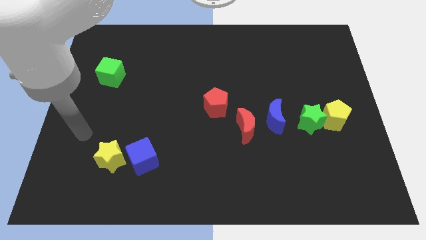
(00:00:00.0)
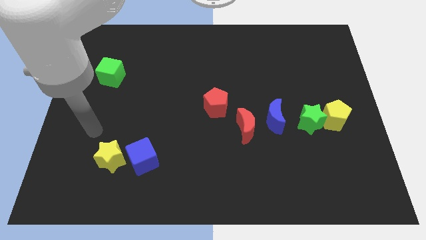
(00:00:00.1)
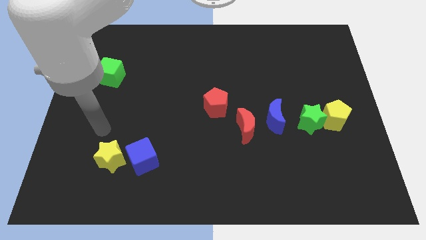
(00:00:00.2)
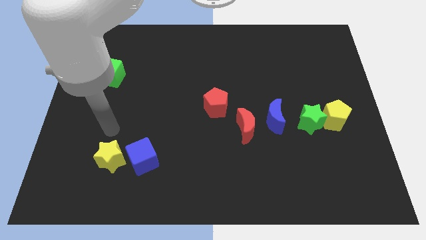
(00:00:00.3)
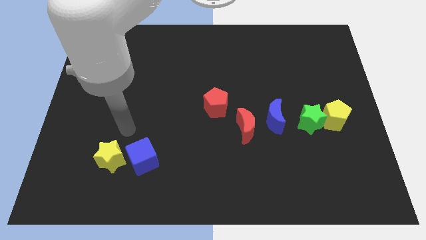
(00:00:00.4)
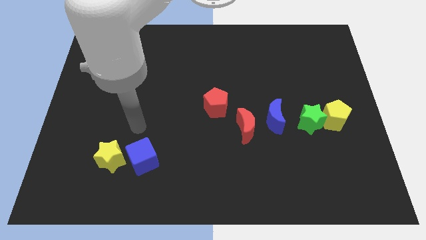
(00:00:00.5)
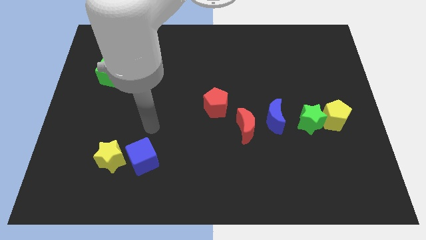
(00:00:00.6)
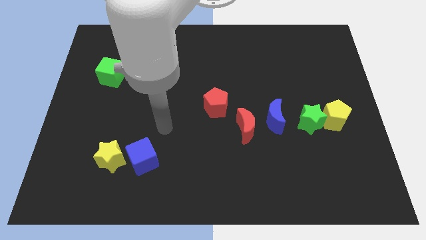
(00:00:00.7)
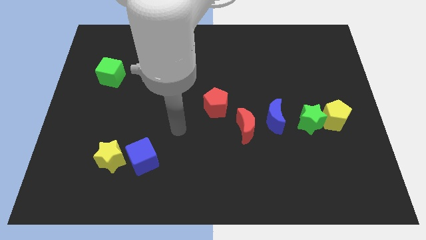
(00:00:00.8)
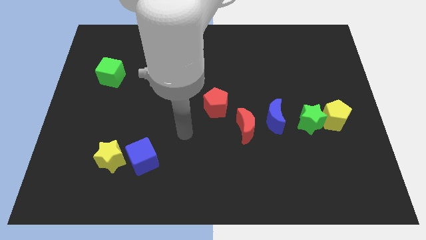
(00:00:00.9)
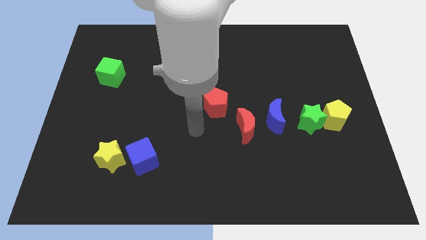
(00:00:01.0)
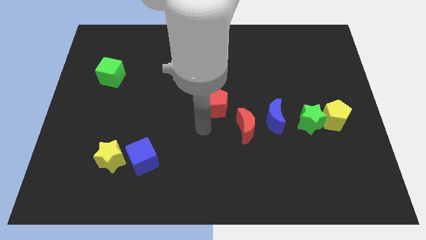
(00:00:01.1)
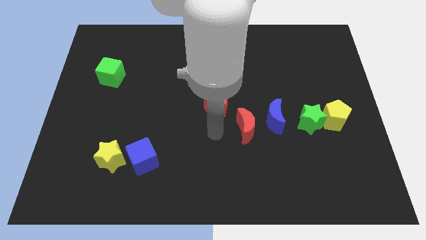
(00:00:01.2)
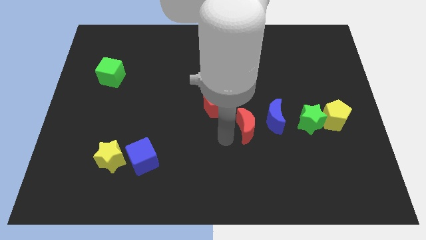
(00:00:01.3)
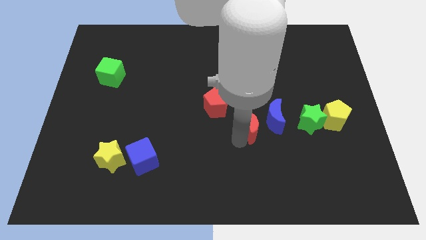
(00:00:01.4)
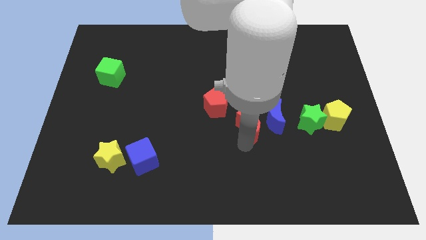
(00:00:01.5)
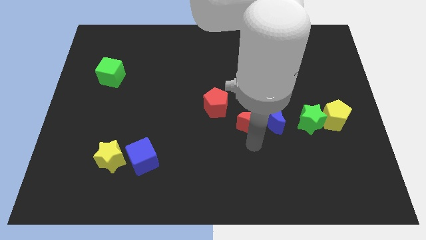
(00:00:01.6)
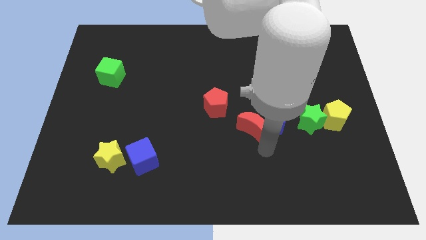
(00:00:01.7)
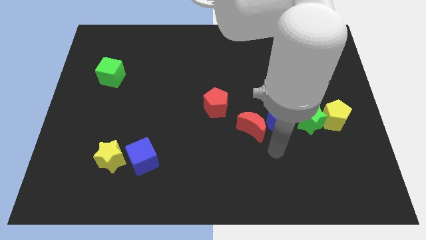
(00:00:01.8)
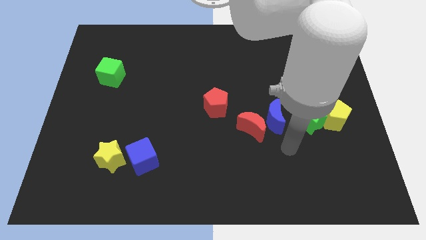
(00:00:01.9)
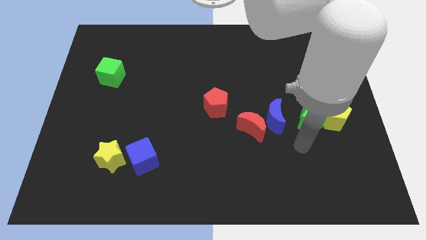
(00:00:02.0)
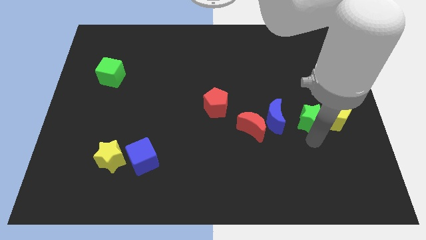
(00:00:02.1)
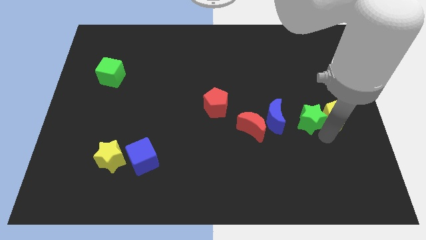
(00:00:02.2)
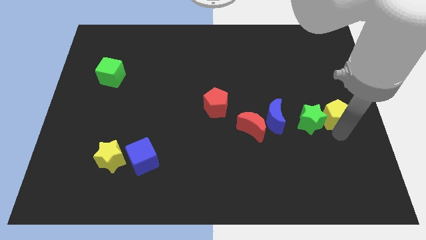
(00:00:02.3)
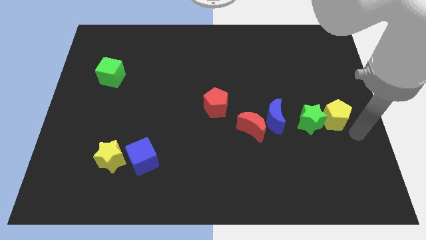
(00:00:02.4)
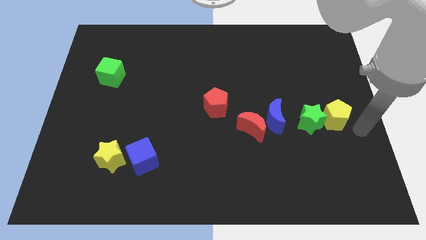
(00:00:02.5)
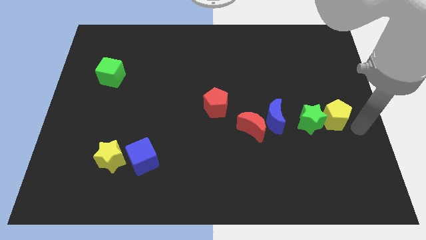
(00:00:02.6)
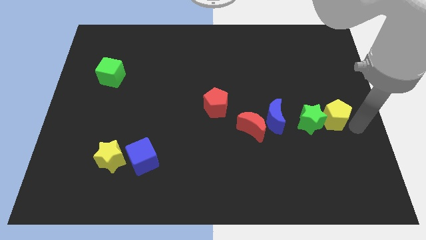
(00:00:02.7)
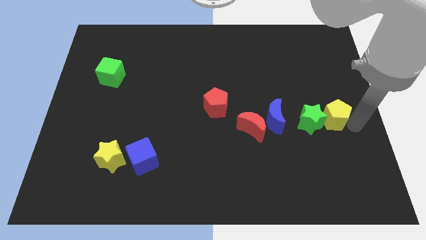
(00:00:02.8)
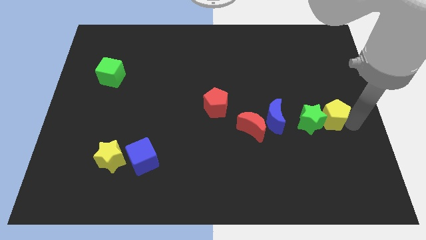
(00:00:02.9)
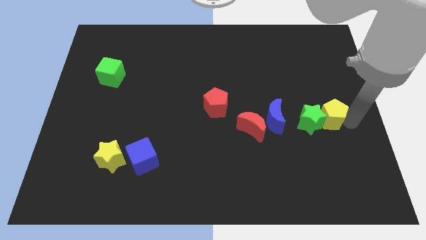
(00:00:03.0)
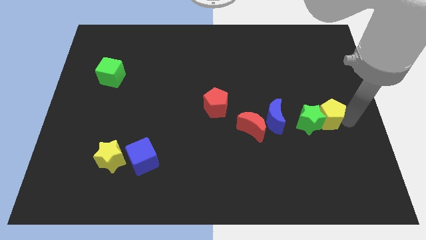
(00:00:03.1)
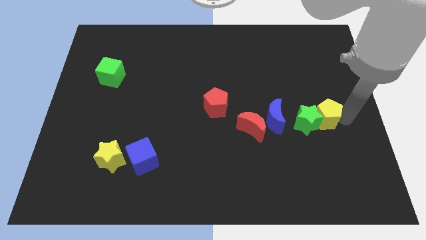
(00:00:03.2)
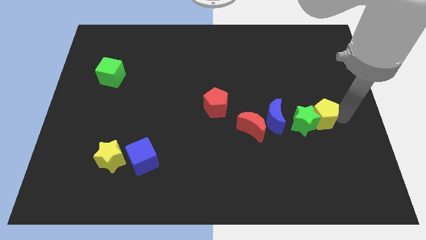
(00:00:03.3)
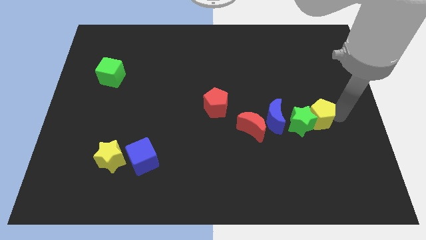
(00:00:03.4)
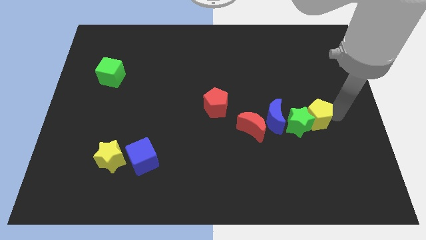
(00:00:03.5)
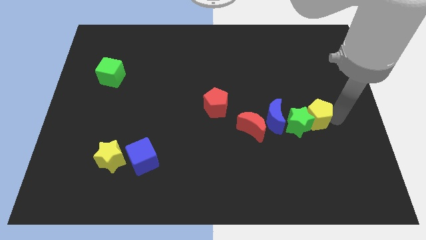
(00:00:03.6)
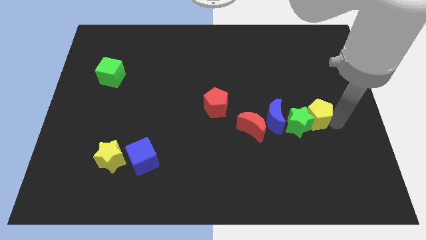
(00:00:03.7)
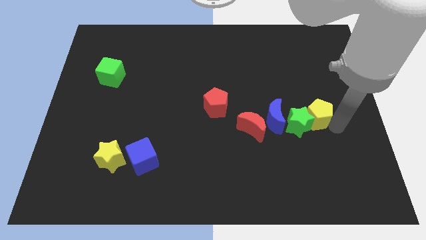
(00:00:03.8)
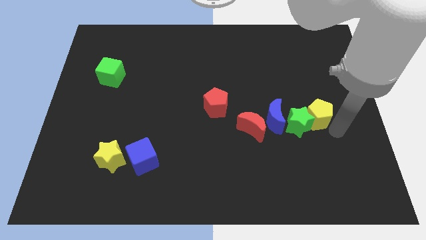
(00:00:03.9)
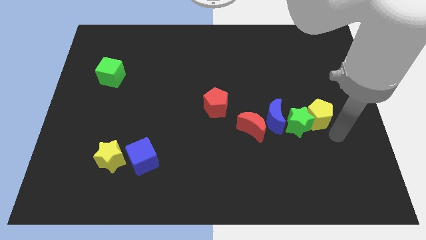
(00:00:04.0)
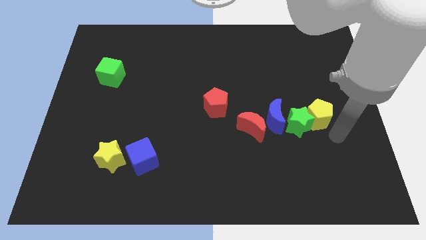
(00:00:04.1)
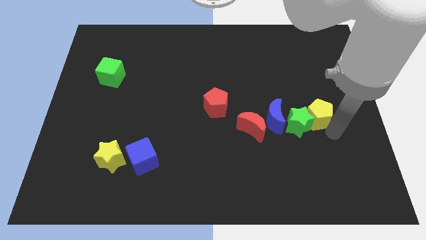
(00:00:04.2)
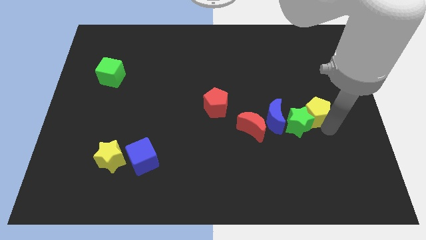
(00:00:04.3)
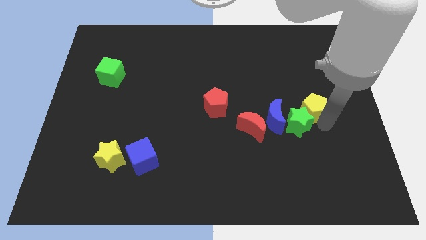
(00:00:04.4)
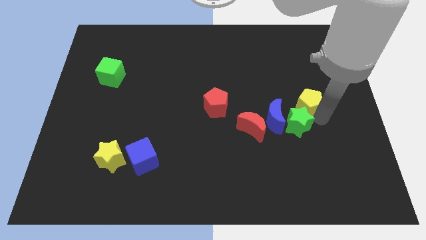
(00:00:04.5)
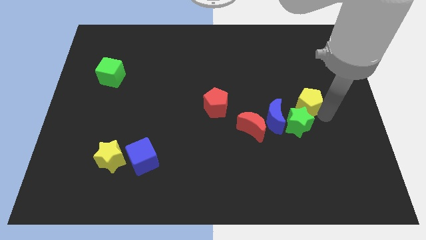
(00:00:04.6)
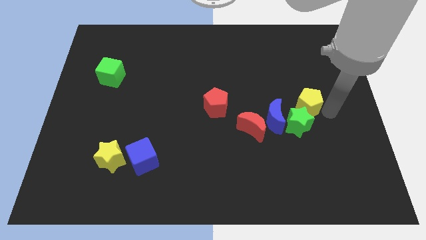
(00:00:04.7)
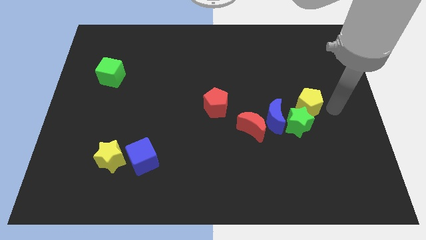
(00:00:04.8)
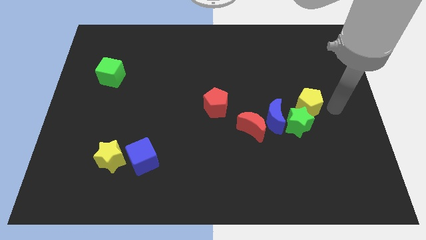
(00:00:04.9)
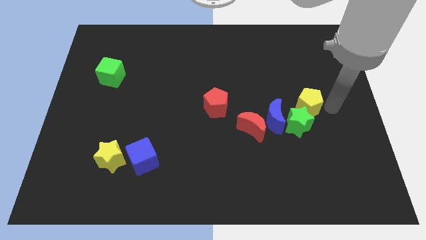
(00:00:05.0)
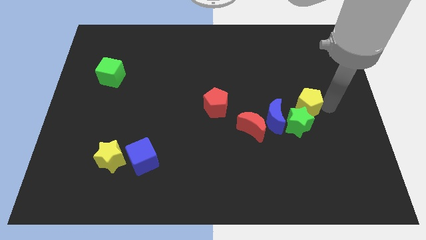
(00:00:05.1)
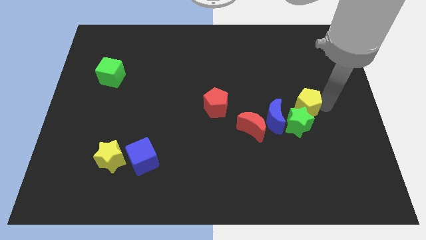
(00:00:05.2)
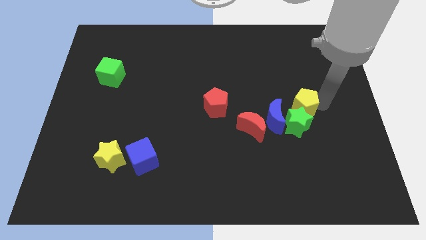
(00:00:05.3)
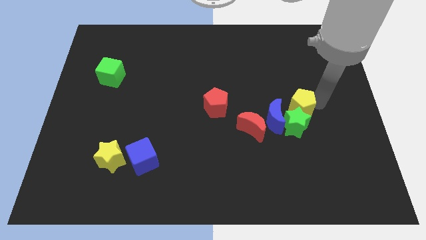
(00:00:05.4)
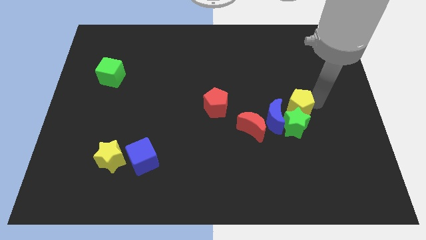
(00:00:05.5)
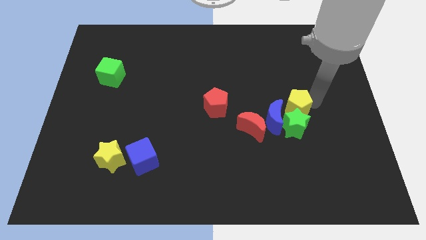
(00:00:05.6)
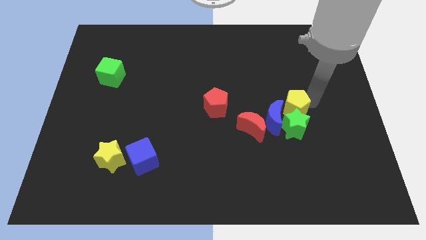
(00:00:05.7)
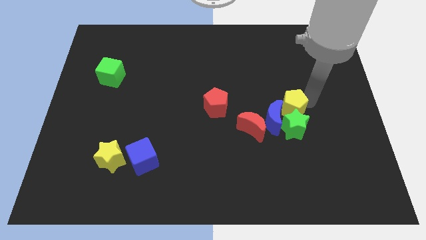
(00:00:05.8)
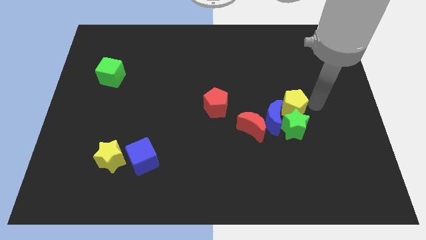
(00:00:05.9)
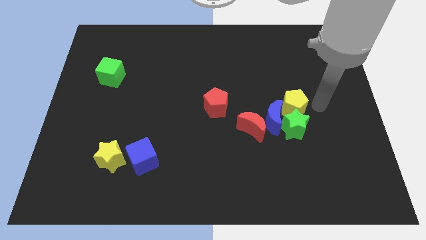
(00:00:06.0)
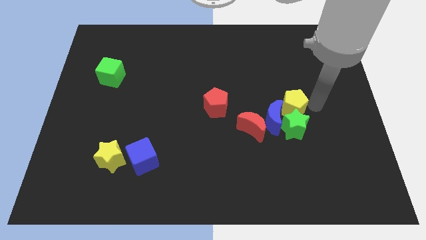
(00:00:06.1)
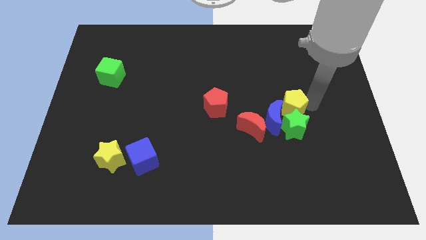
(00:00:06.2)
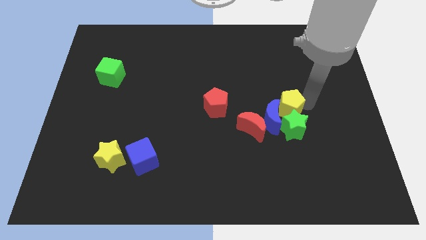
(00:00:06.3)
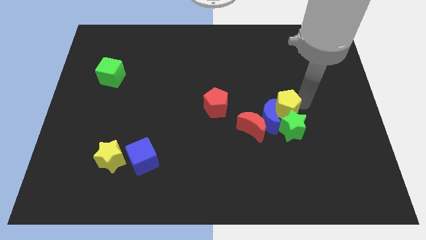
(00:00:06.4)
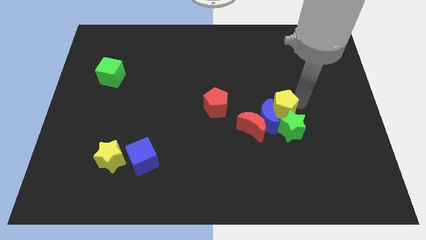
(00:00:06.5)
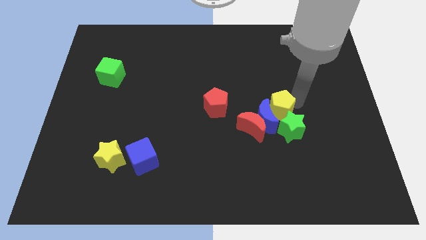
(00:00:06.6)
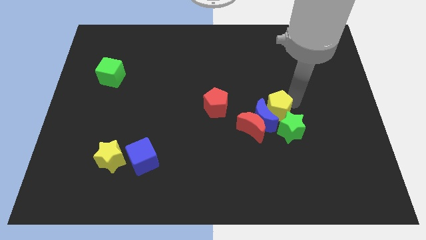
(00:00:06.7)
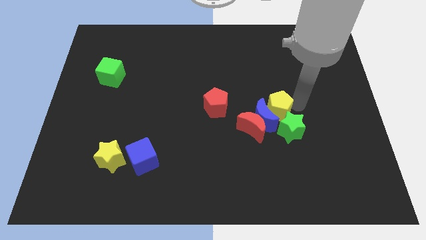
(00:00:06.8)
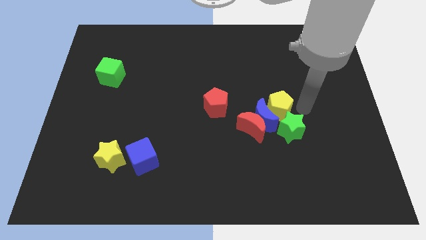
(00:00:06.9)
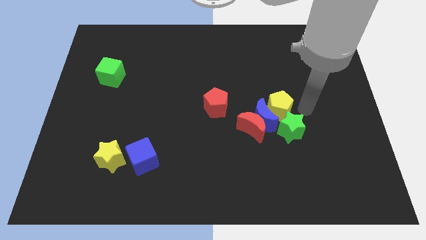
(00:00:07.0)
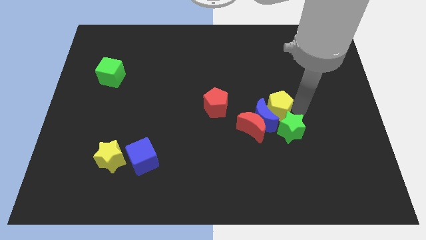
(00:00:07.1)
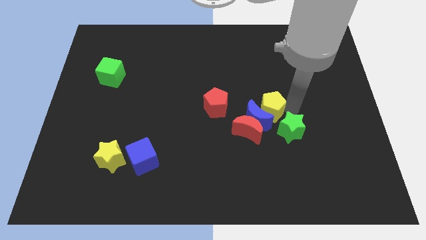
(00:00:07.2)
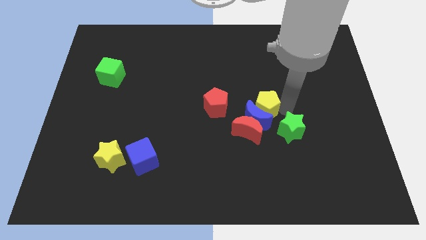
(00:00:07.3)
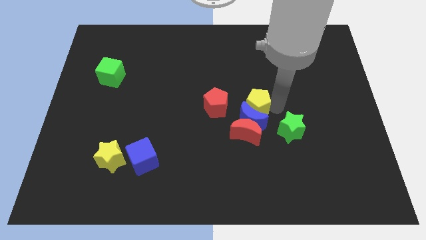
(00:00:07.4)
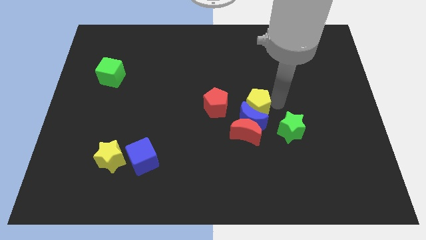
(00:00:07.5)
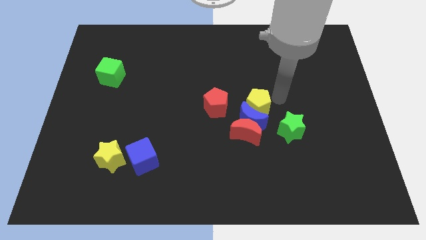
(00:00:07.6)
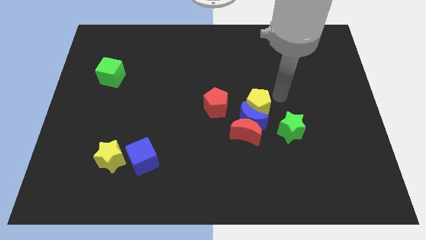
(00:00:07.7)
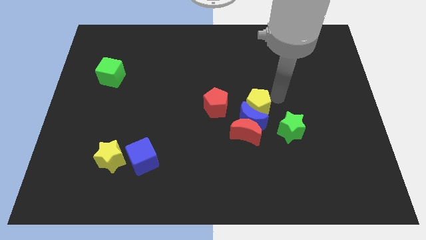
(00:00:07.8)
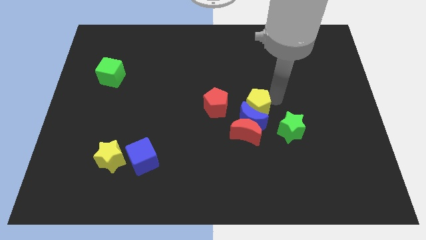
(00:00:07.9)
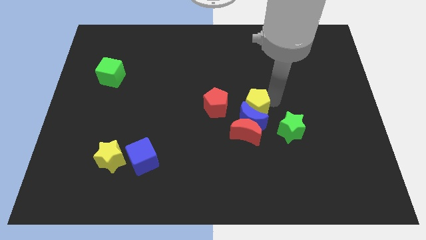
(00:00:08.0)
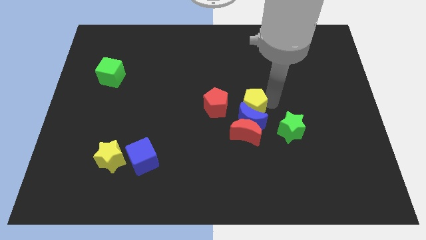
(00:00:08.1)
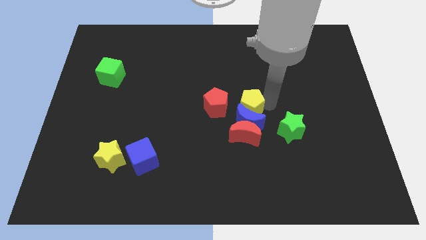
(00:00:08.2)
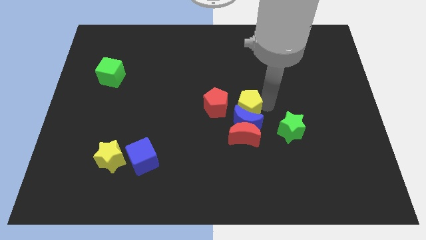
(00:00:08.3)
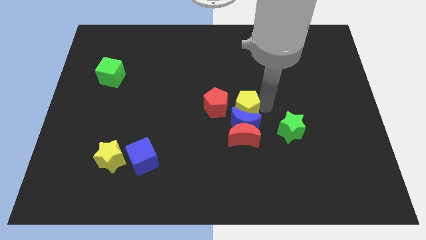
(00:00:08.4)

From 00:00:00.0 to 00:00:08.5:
move the yellow pentagon left
